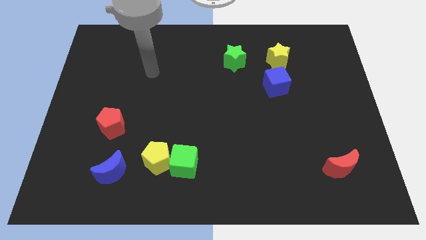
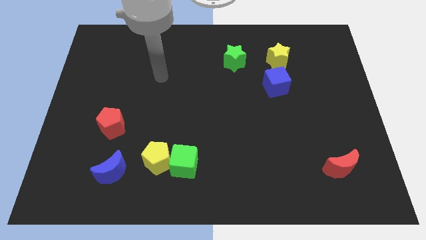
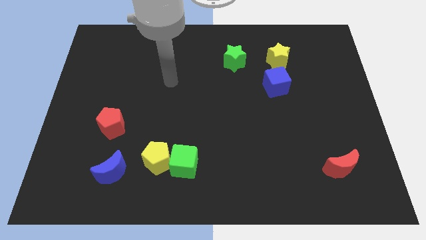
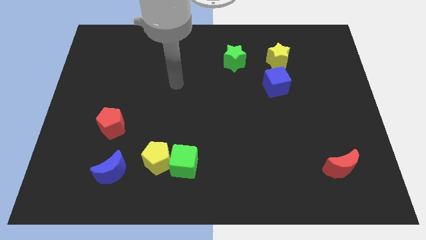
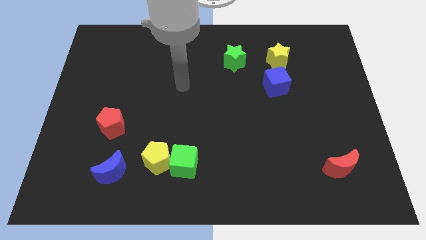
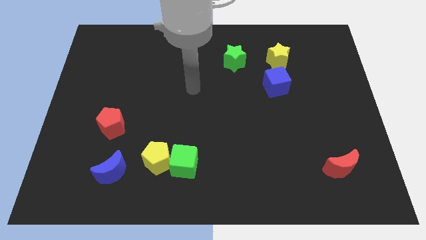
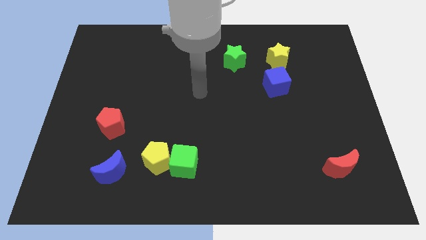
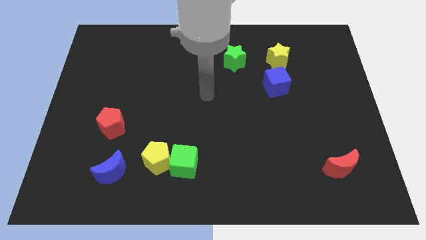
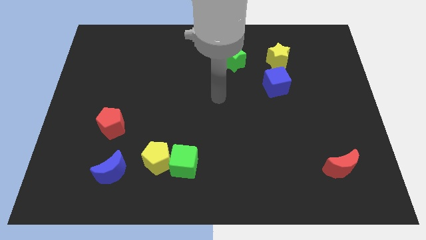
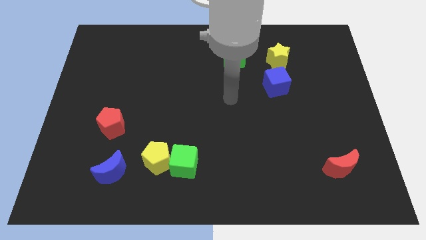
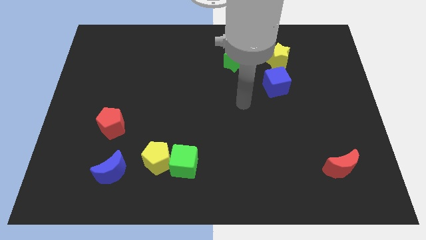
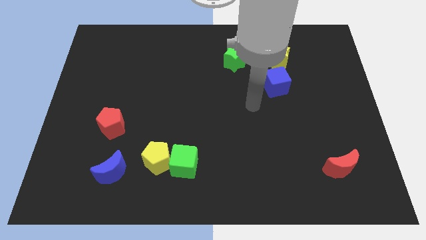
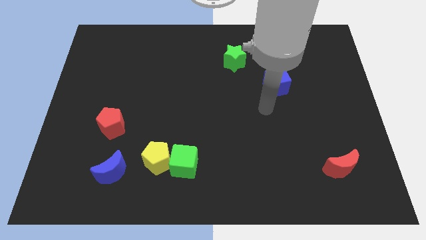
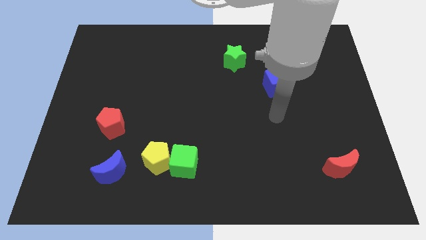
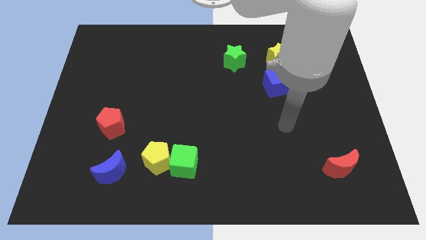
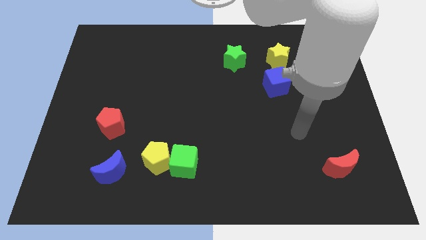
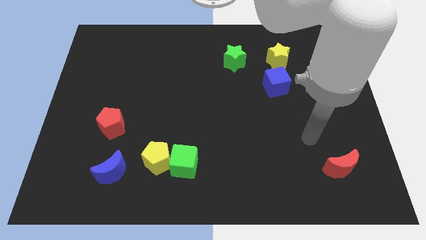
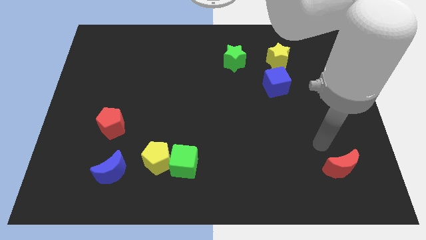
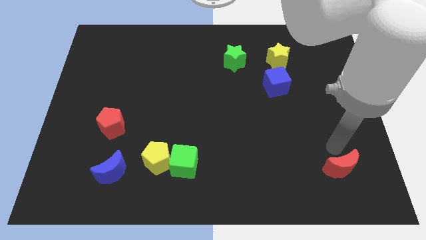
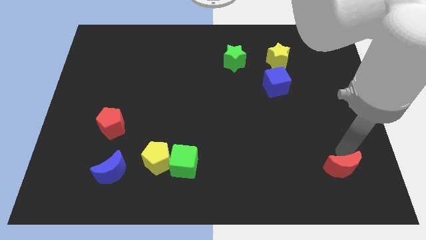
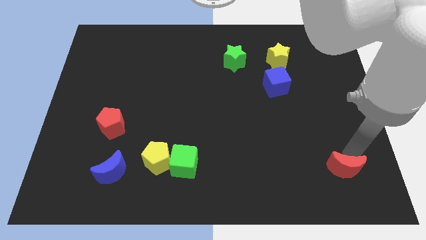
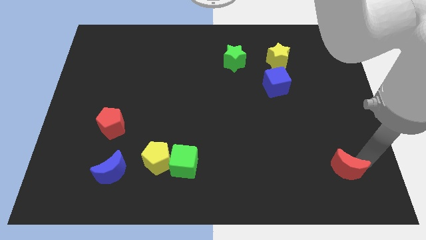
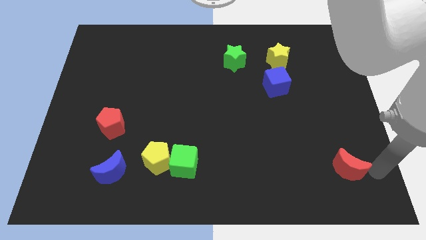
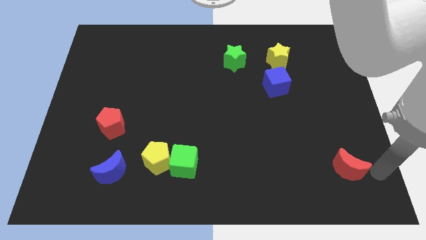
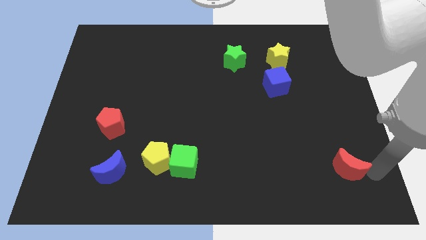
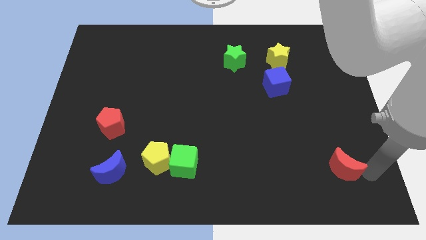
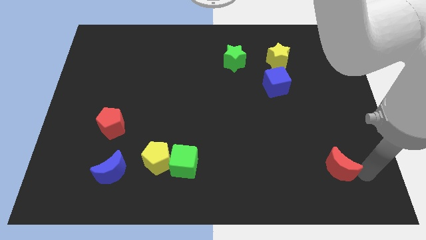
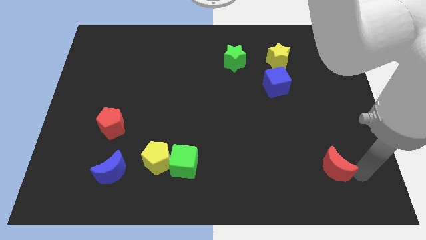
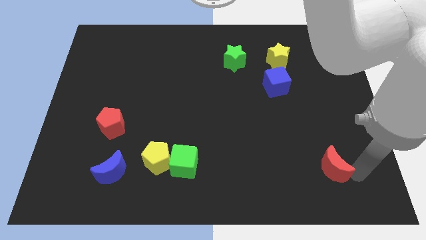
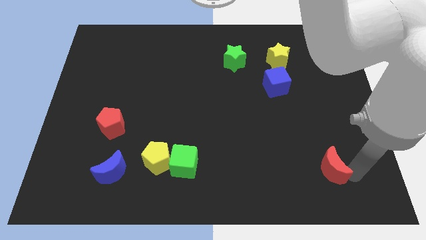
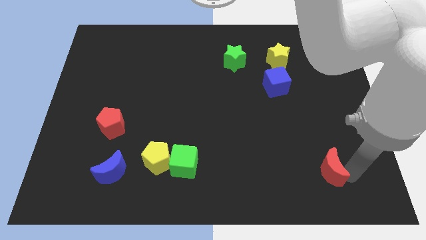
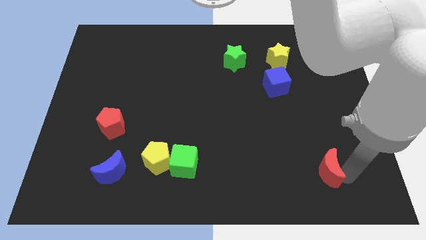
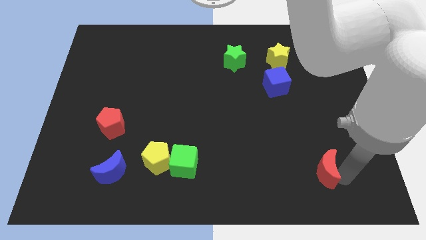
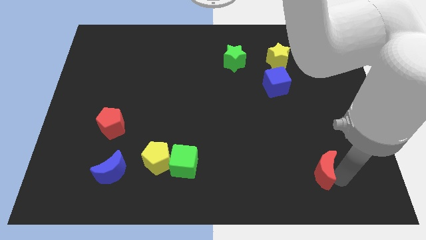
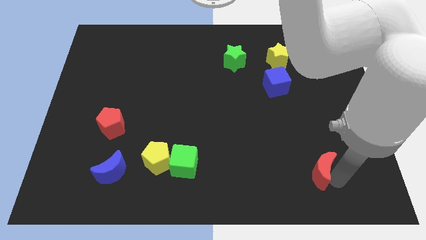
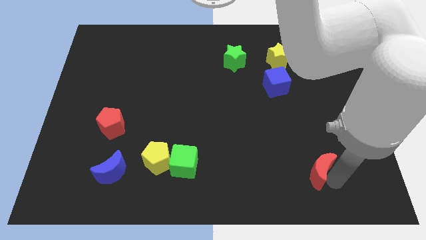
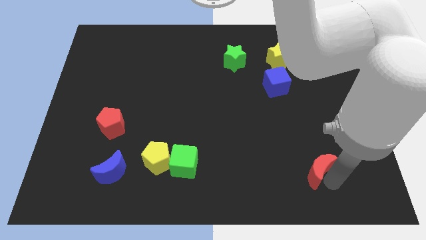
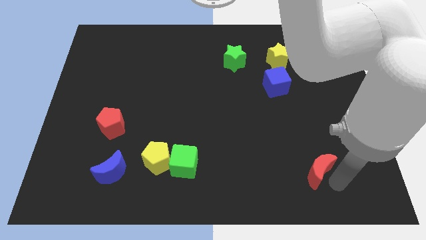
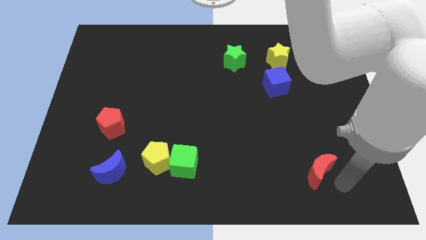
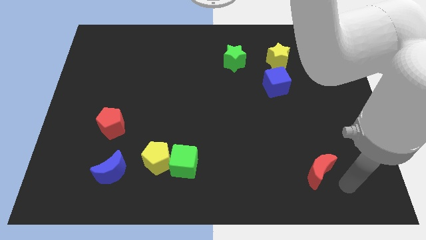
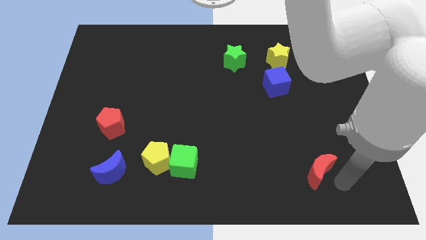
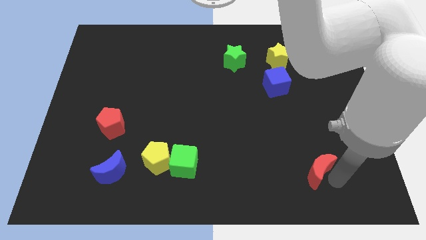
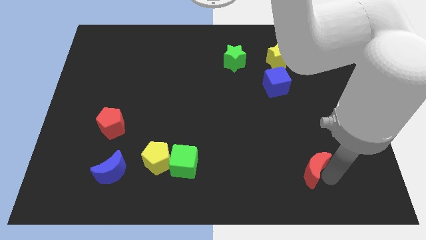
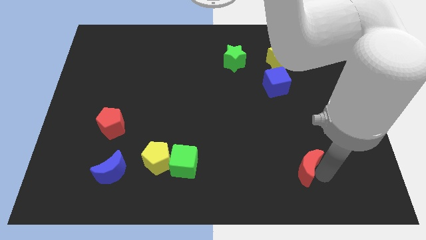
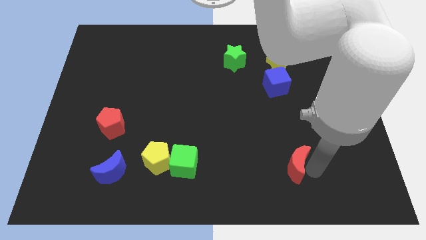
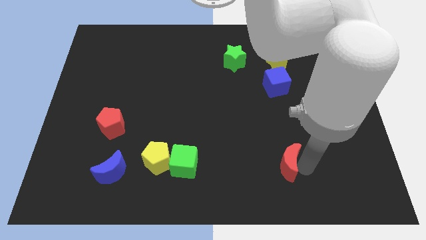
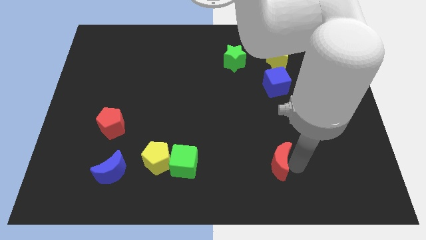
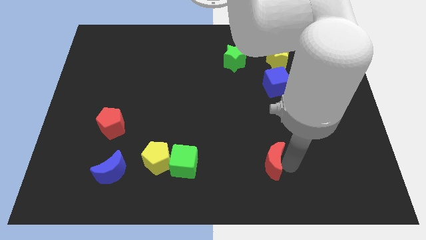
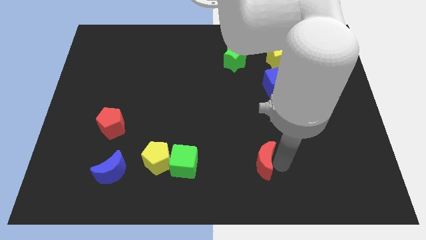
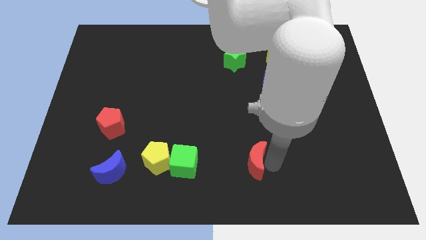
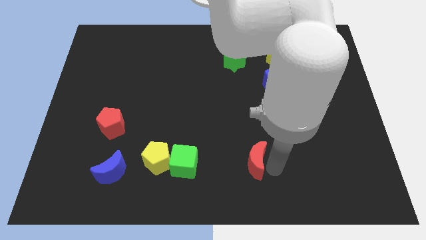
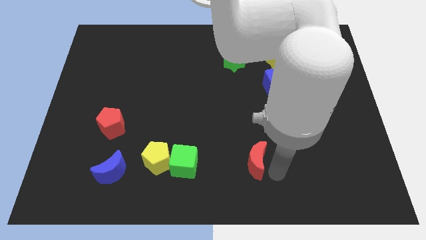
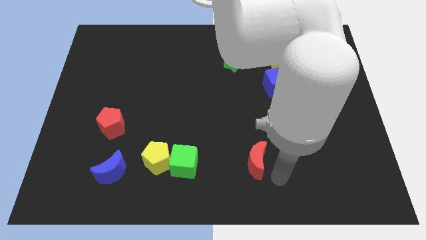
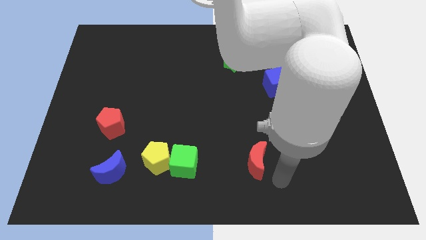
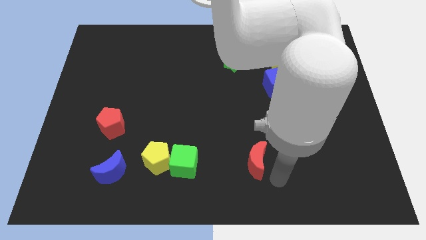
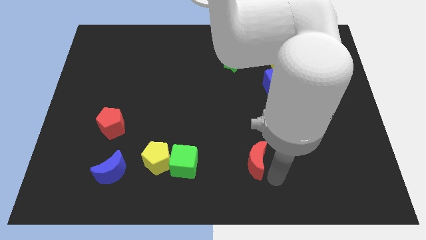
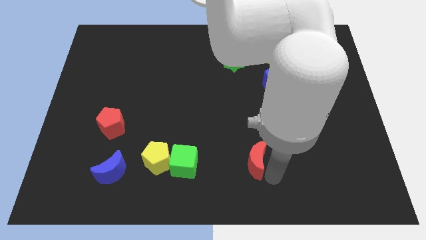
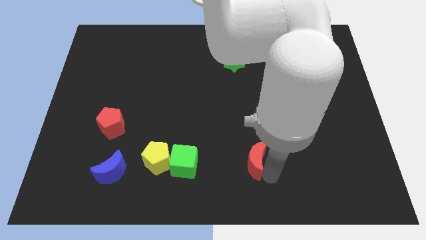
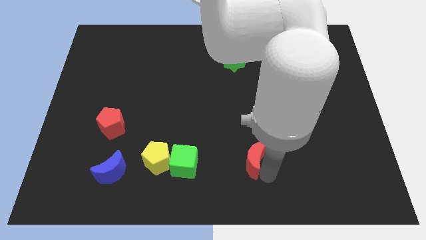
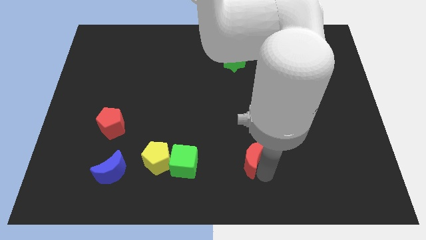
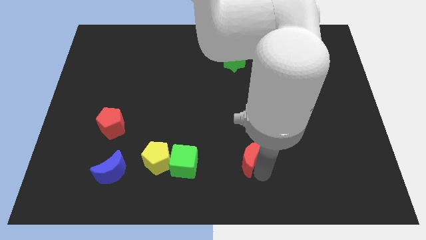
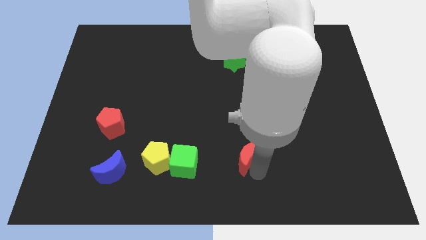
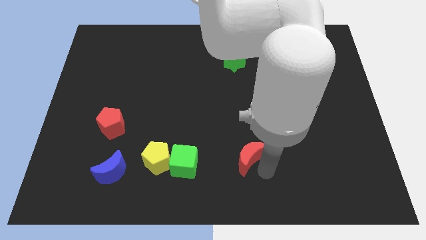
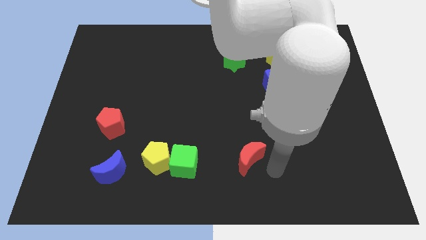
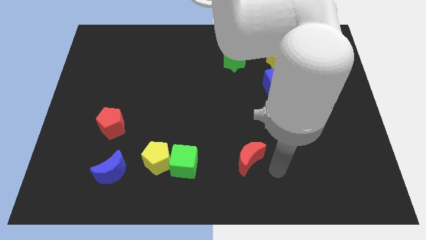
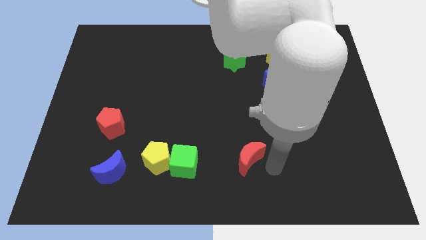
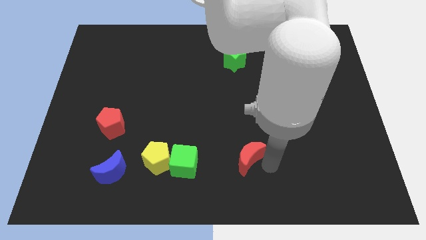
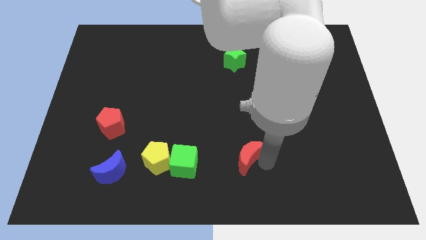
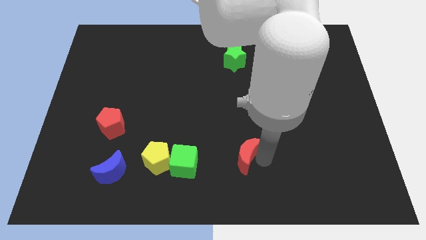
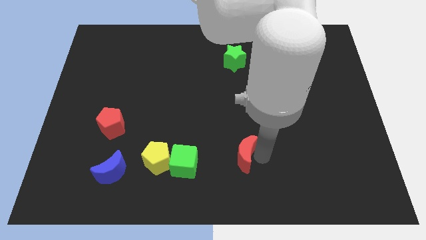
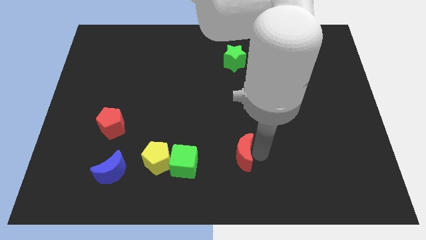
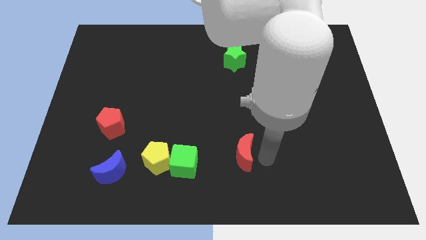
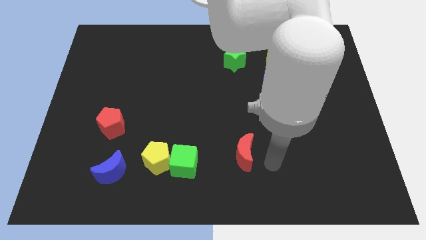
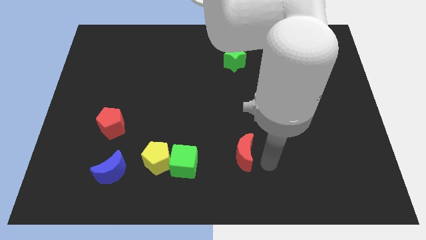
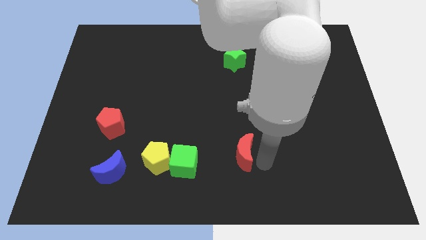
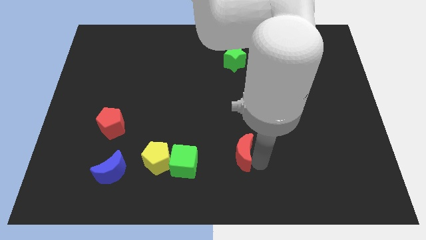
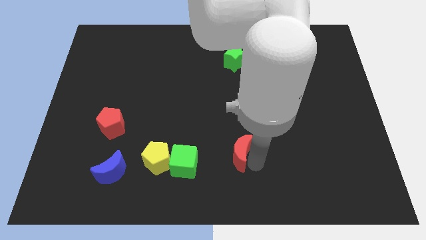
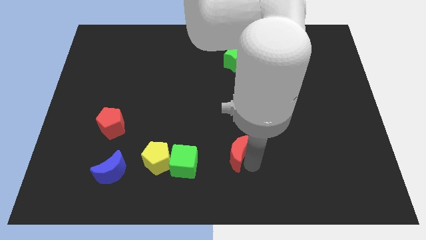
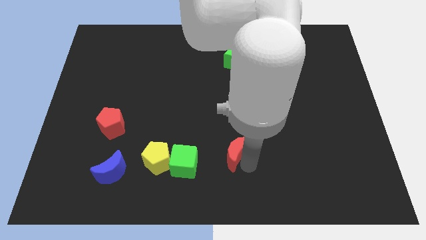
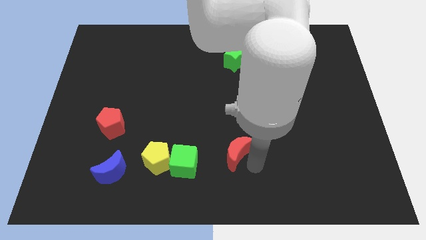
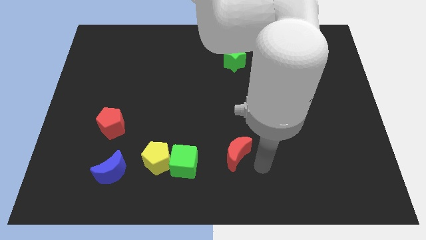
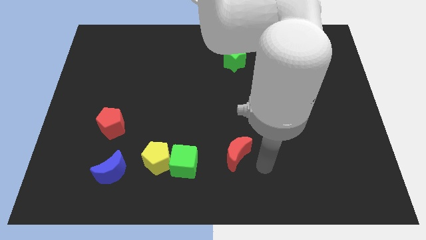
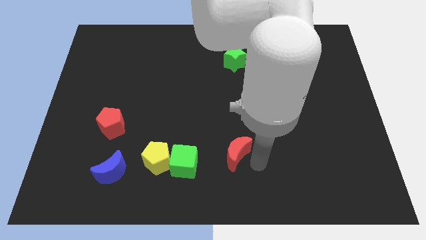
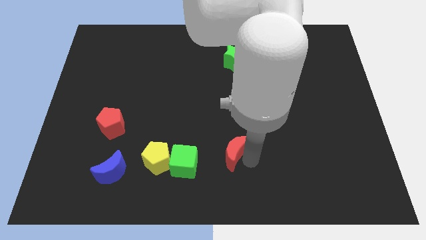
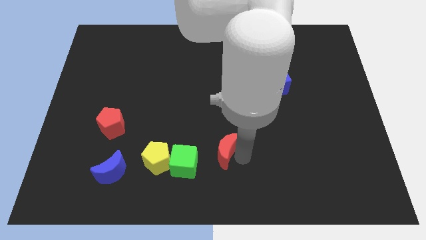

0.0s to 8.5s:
put the red moon to the top right of the green cube
